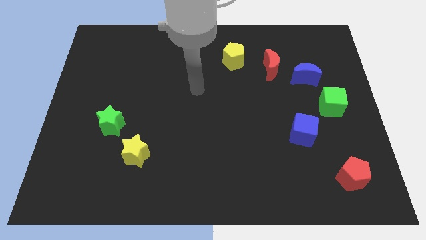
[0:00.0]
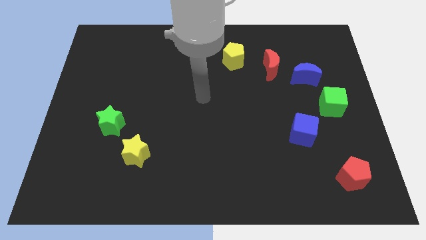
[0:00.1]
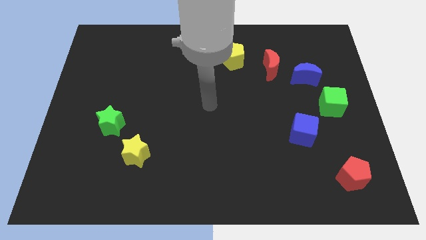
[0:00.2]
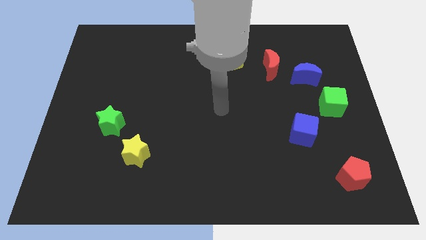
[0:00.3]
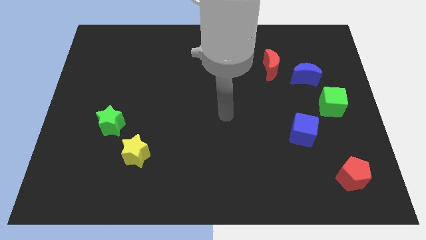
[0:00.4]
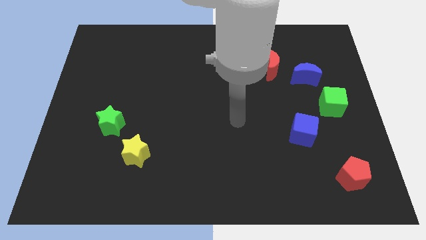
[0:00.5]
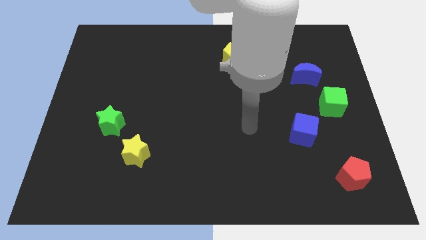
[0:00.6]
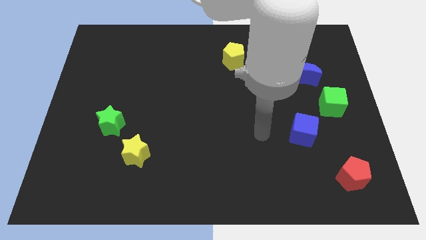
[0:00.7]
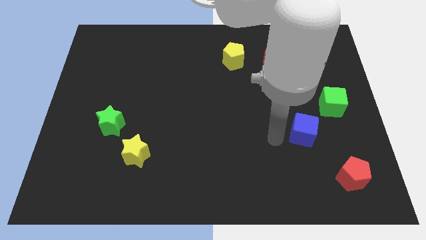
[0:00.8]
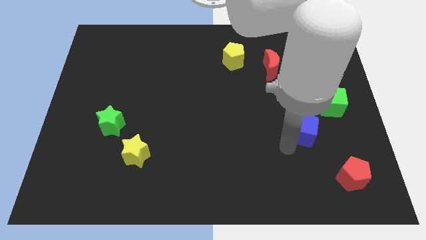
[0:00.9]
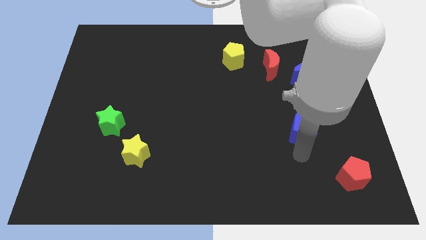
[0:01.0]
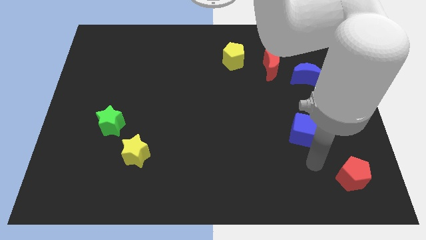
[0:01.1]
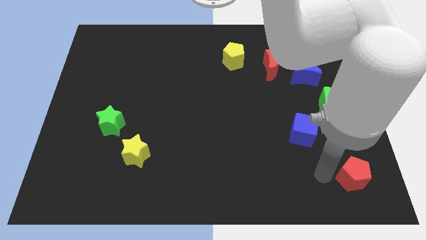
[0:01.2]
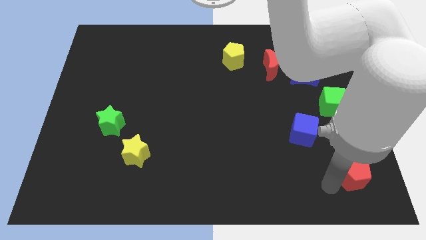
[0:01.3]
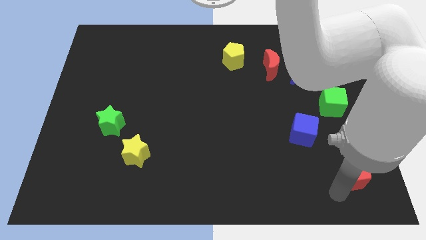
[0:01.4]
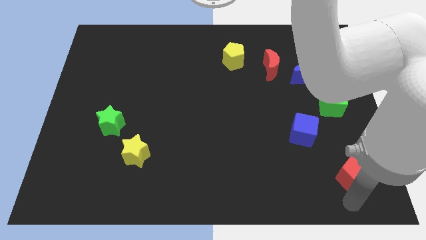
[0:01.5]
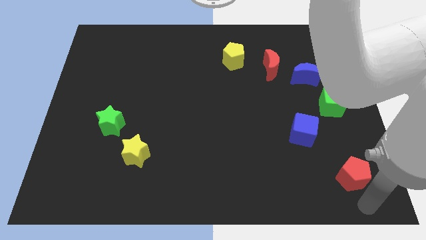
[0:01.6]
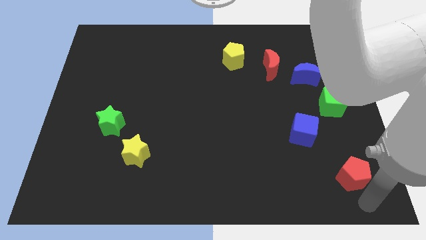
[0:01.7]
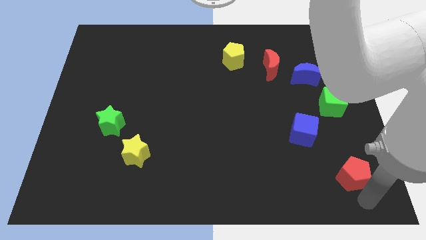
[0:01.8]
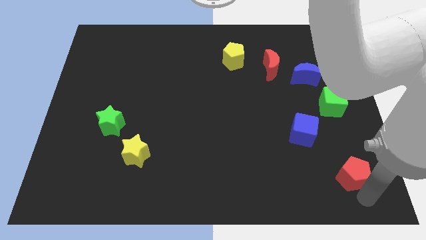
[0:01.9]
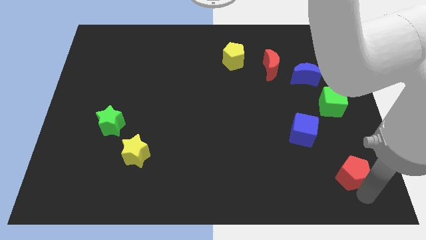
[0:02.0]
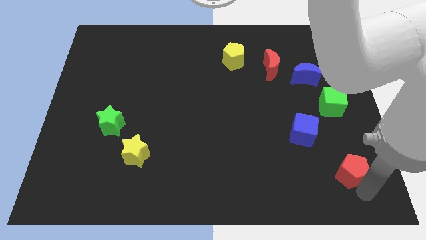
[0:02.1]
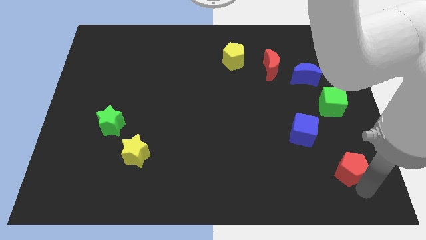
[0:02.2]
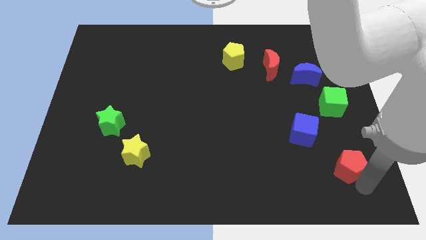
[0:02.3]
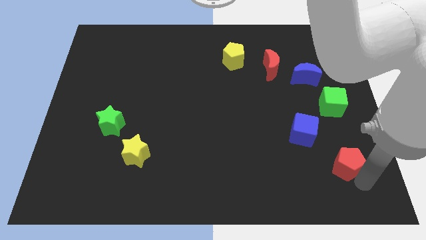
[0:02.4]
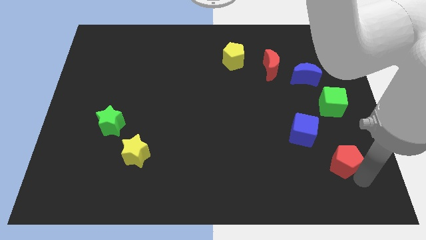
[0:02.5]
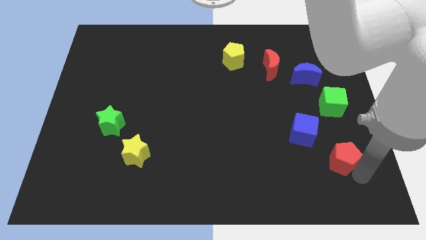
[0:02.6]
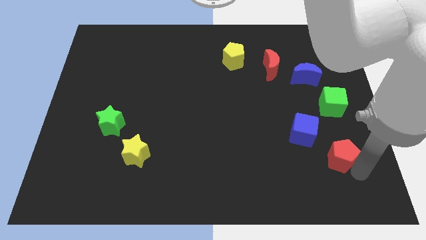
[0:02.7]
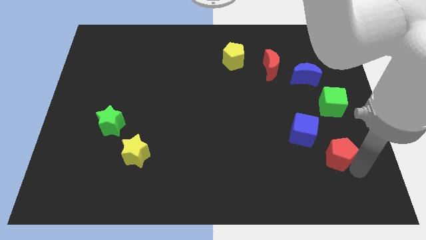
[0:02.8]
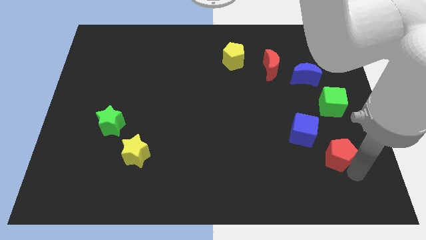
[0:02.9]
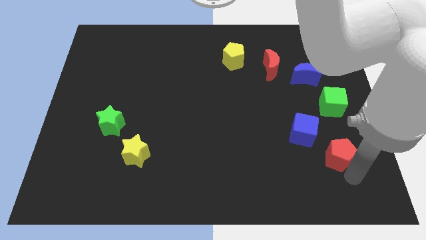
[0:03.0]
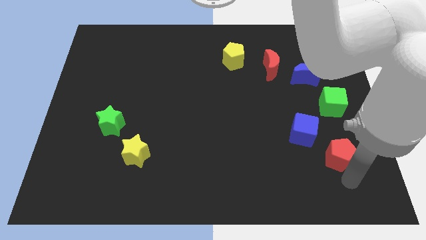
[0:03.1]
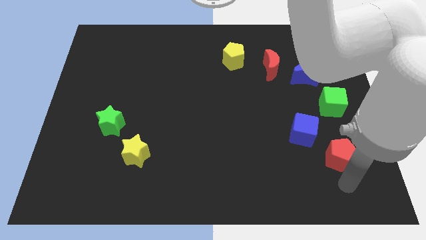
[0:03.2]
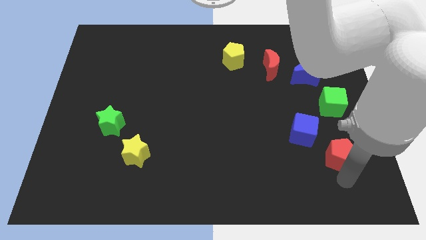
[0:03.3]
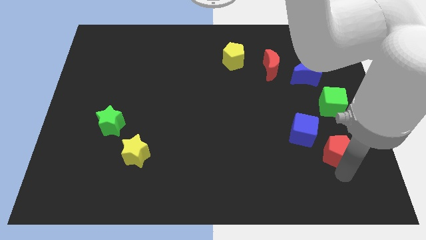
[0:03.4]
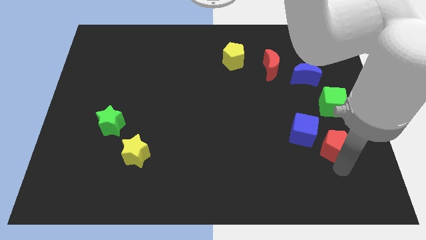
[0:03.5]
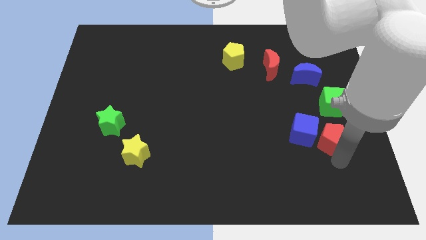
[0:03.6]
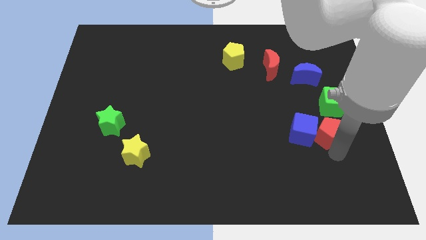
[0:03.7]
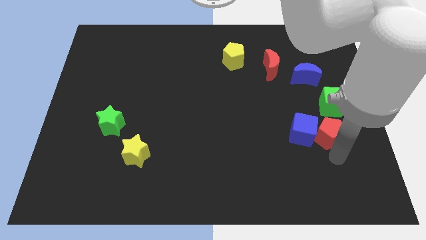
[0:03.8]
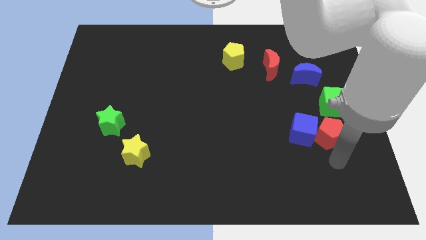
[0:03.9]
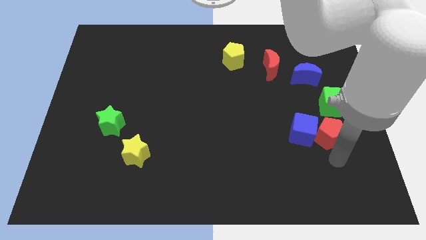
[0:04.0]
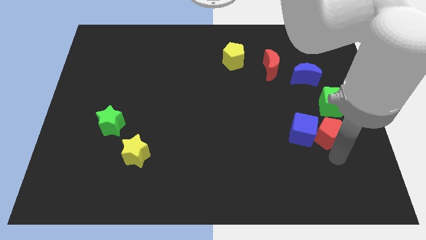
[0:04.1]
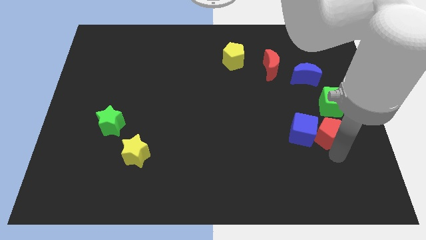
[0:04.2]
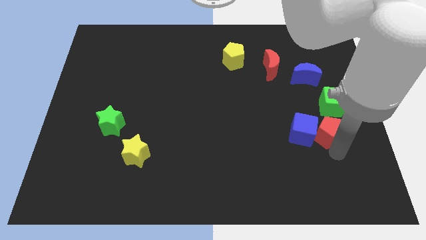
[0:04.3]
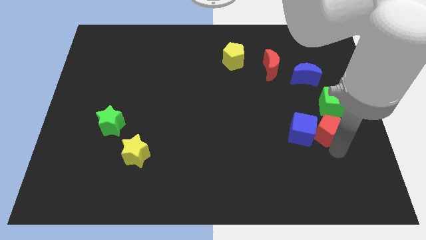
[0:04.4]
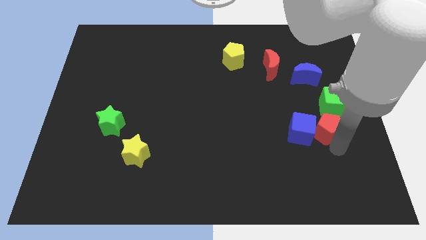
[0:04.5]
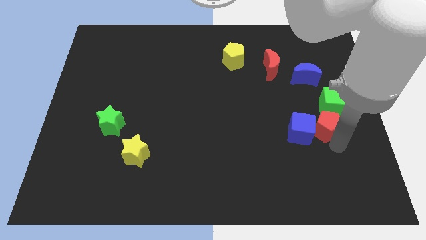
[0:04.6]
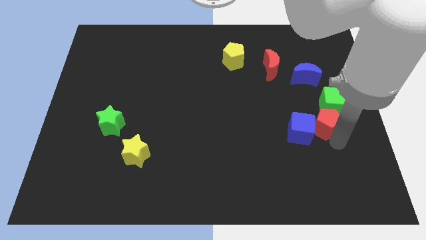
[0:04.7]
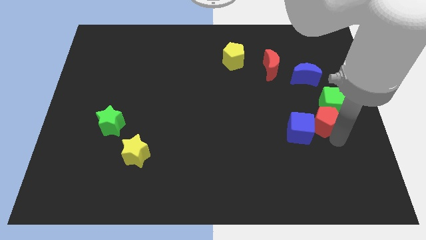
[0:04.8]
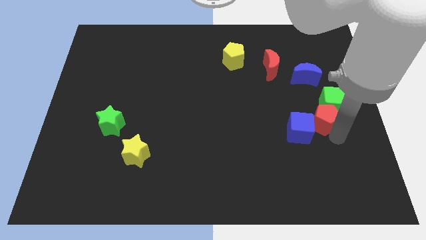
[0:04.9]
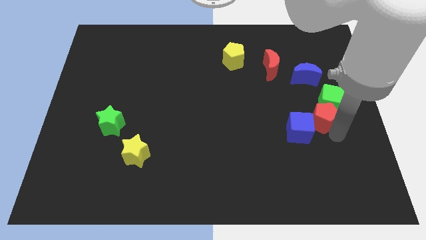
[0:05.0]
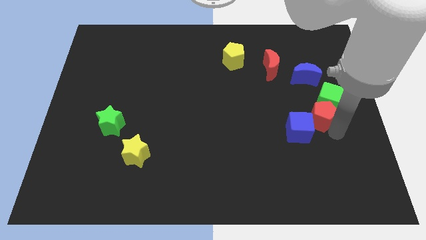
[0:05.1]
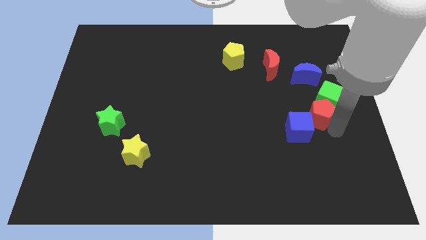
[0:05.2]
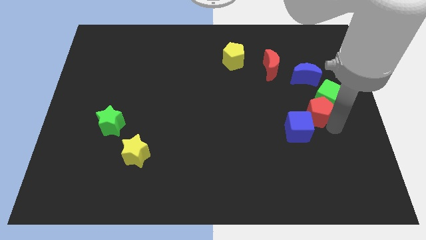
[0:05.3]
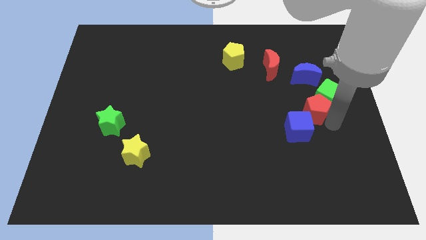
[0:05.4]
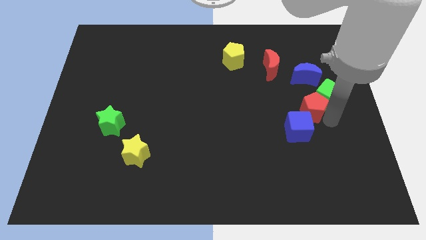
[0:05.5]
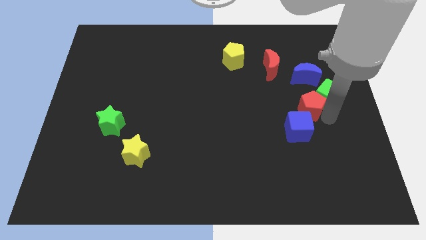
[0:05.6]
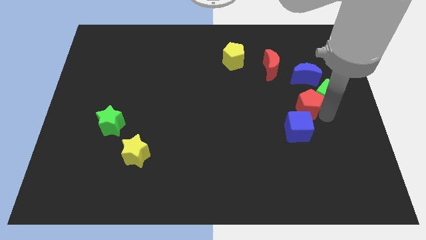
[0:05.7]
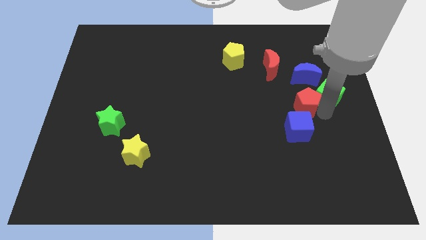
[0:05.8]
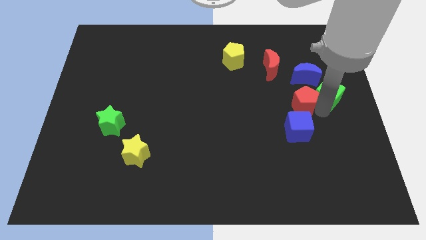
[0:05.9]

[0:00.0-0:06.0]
slide the red pentagon to the bottom left side of the blue moon

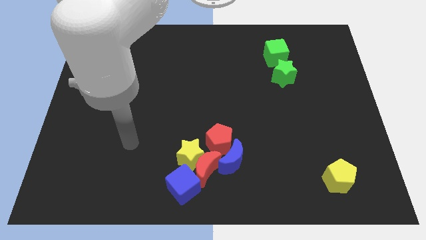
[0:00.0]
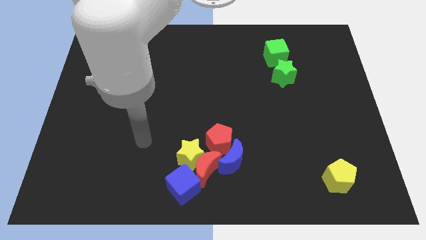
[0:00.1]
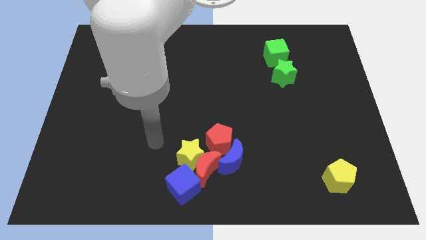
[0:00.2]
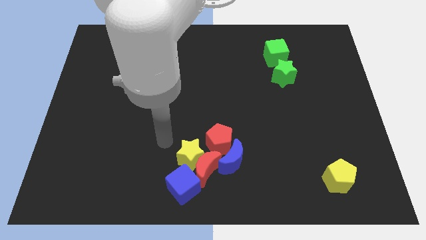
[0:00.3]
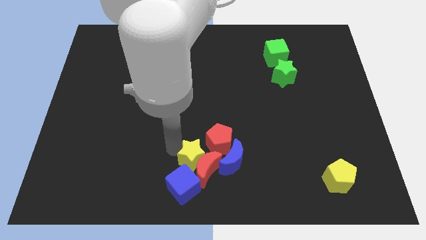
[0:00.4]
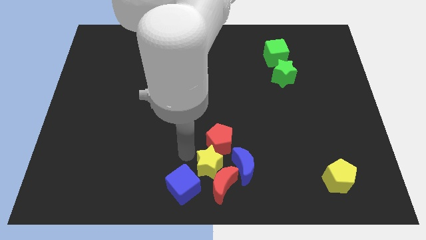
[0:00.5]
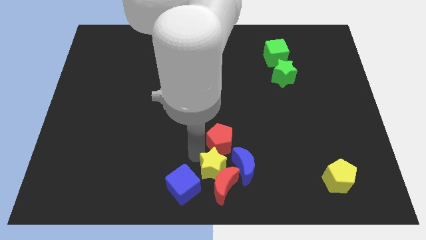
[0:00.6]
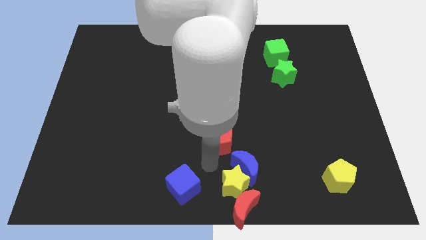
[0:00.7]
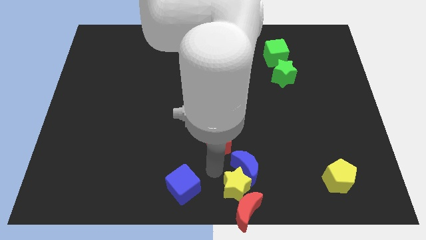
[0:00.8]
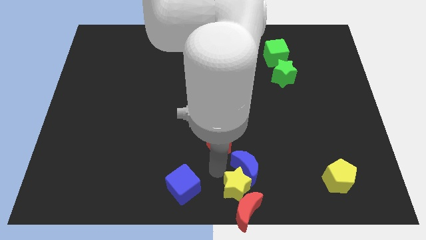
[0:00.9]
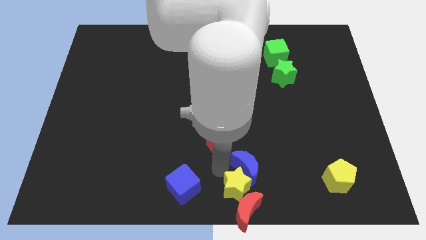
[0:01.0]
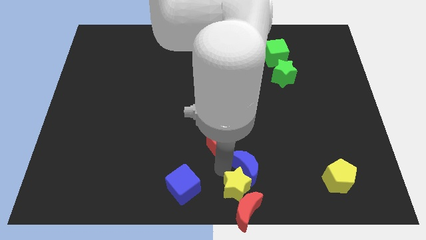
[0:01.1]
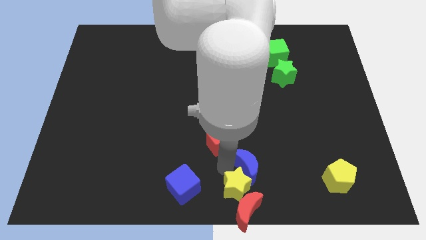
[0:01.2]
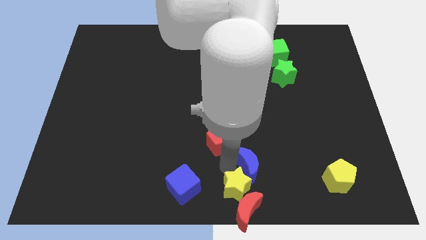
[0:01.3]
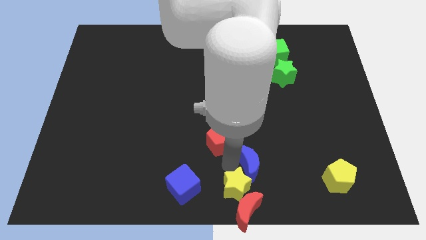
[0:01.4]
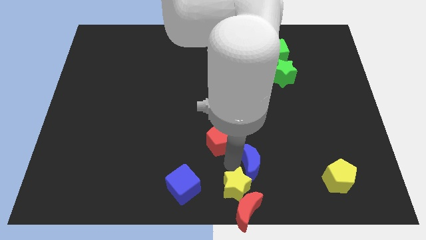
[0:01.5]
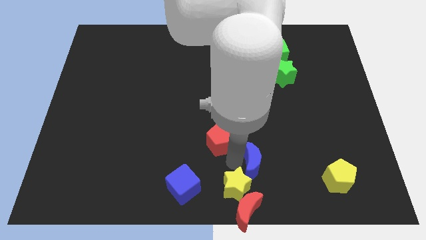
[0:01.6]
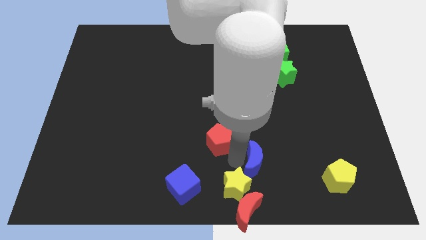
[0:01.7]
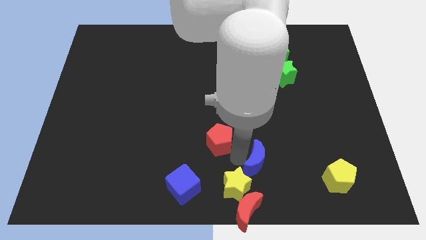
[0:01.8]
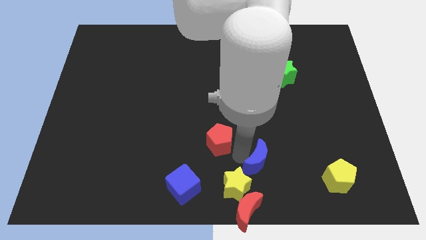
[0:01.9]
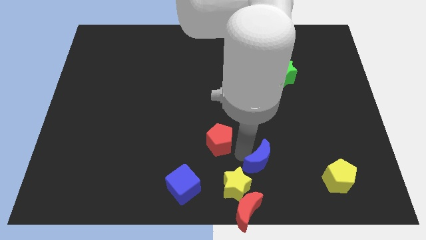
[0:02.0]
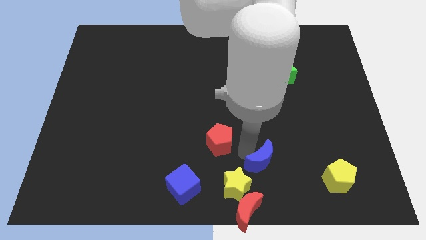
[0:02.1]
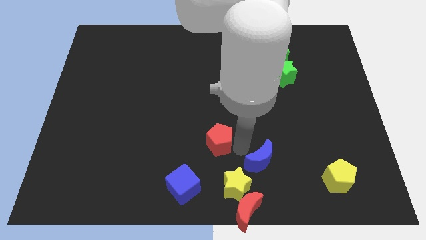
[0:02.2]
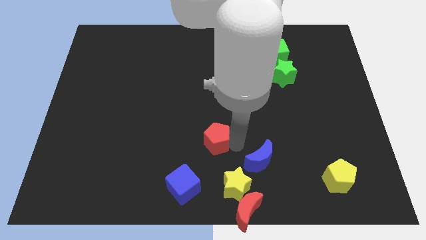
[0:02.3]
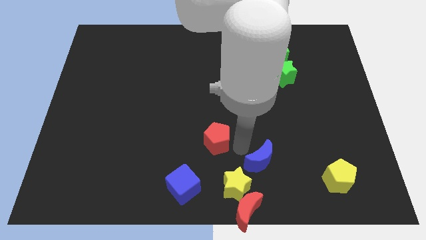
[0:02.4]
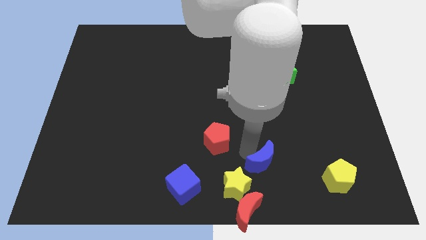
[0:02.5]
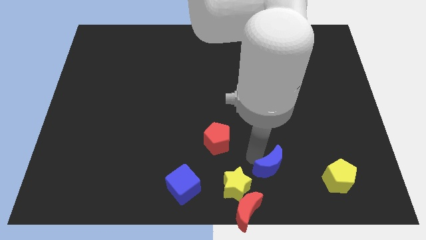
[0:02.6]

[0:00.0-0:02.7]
put the blue moon left of the yellow pentagon
